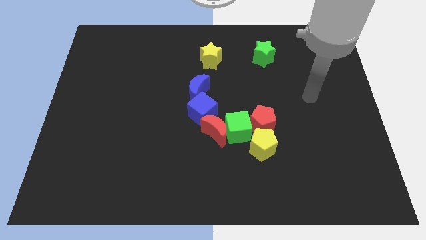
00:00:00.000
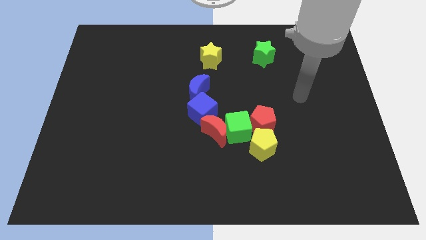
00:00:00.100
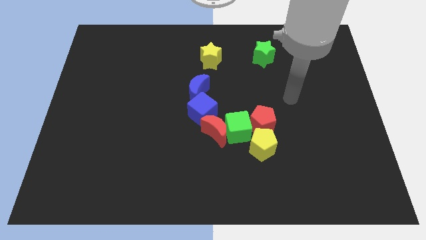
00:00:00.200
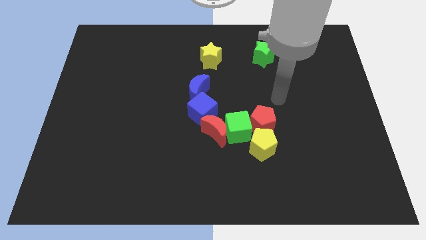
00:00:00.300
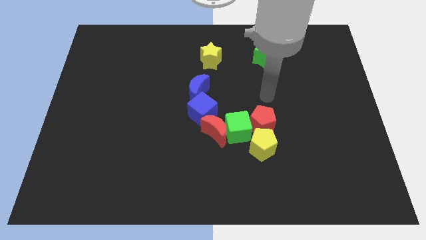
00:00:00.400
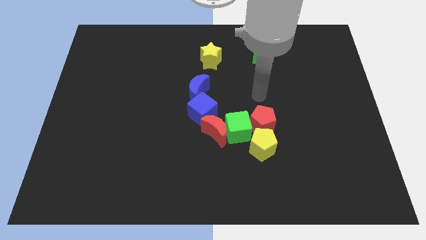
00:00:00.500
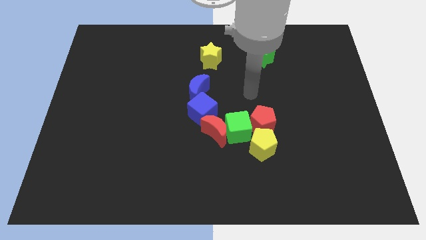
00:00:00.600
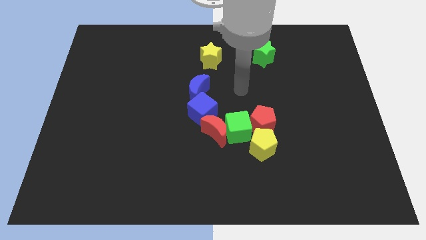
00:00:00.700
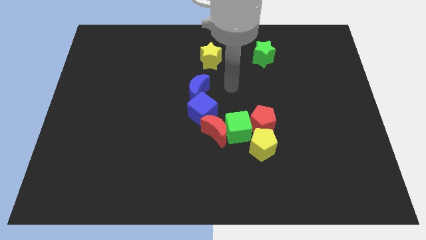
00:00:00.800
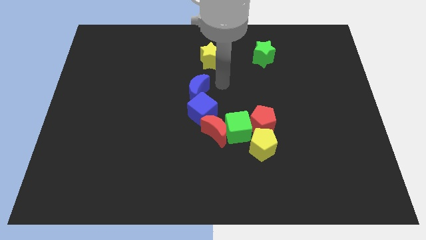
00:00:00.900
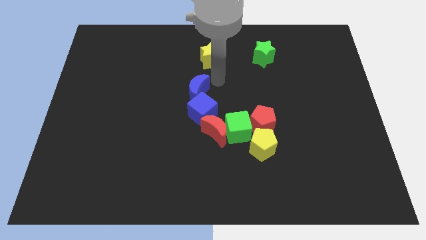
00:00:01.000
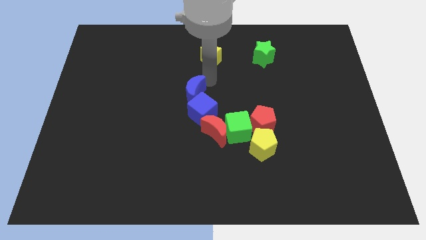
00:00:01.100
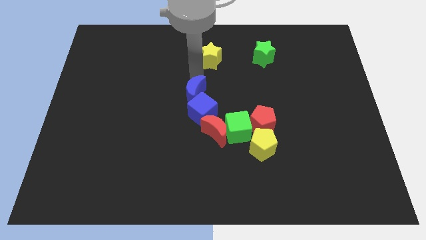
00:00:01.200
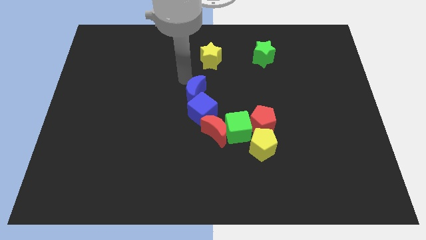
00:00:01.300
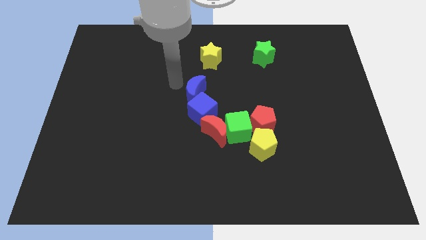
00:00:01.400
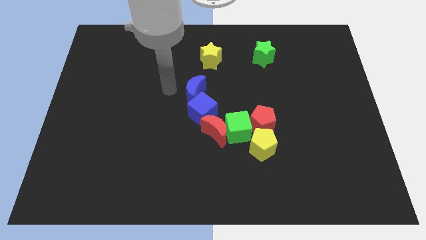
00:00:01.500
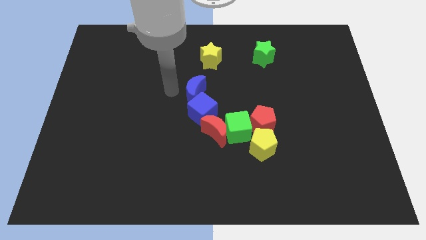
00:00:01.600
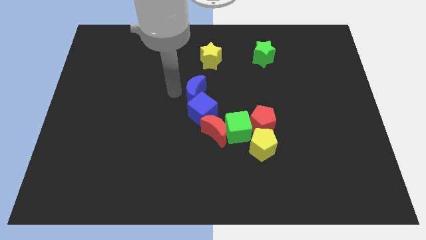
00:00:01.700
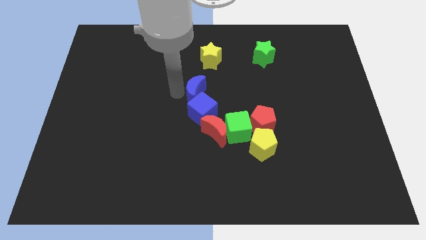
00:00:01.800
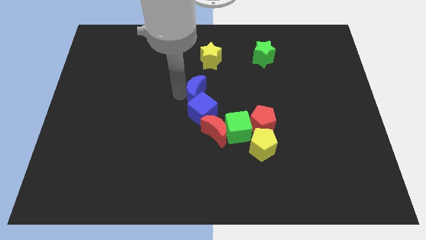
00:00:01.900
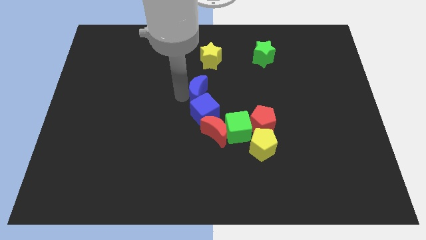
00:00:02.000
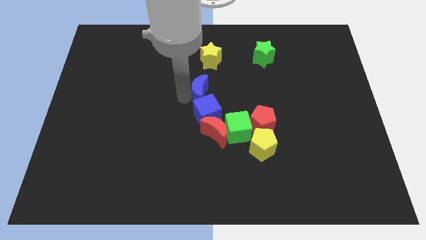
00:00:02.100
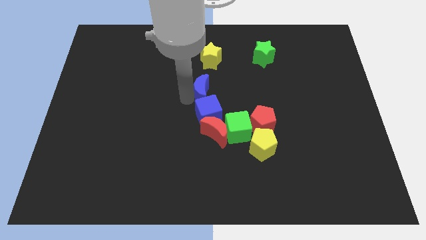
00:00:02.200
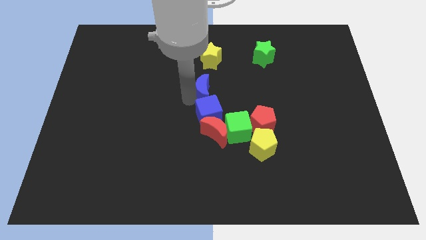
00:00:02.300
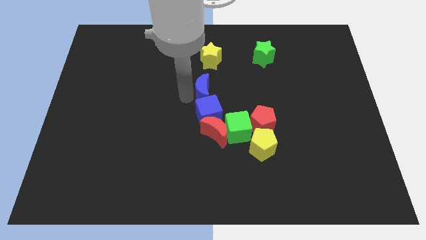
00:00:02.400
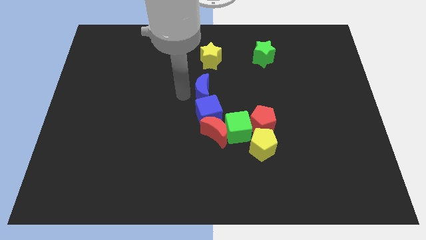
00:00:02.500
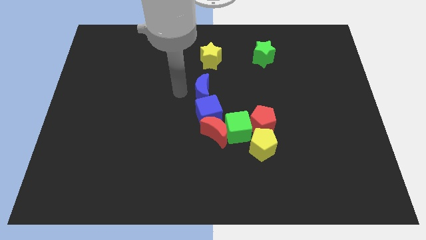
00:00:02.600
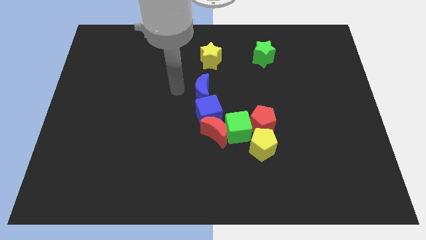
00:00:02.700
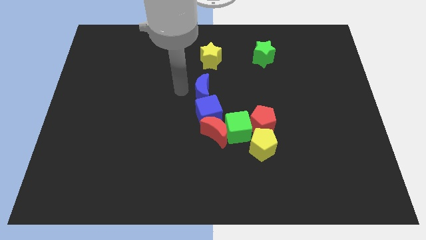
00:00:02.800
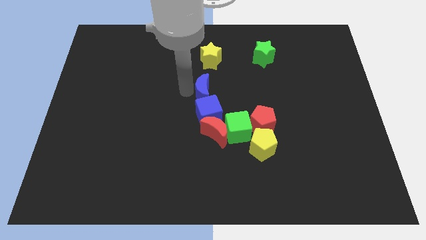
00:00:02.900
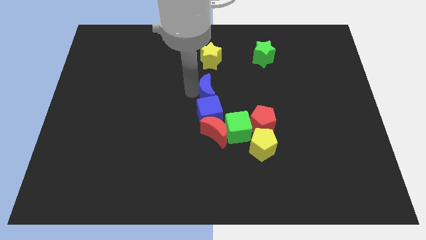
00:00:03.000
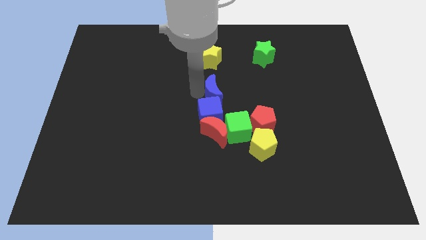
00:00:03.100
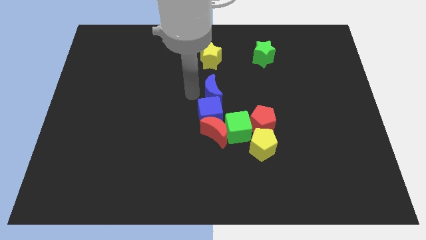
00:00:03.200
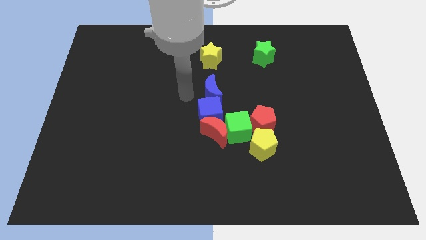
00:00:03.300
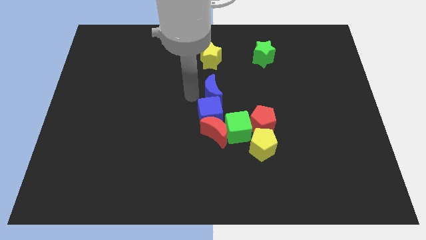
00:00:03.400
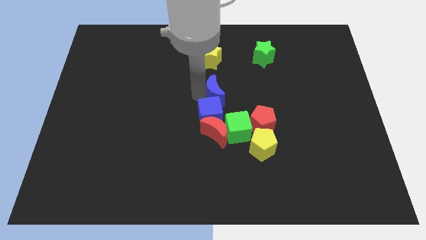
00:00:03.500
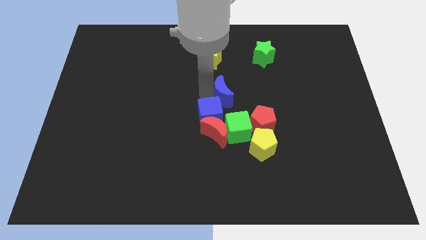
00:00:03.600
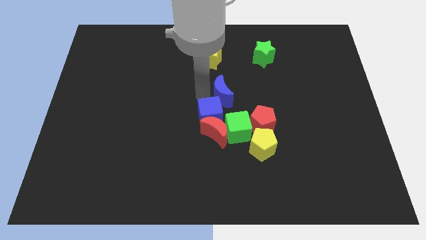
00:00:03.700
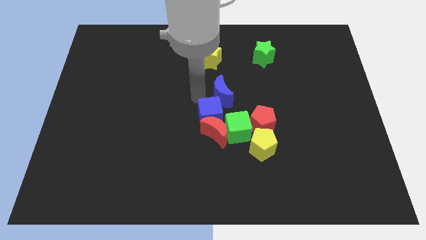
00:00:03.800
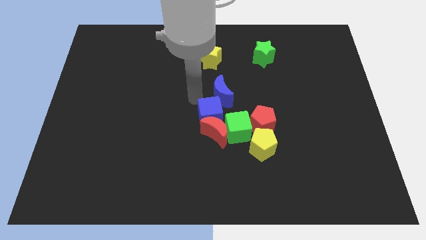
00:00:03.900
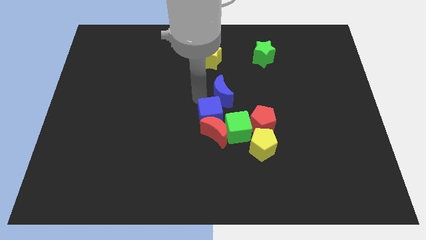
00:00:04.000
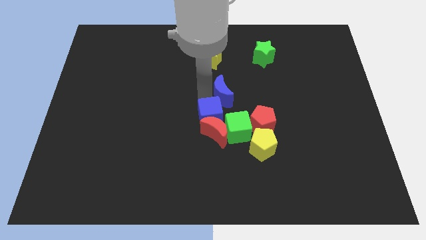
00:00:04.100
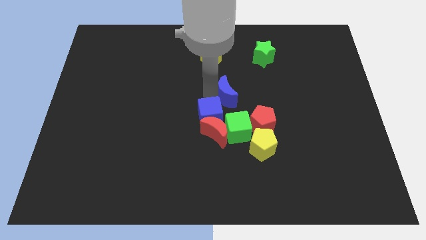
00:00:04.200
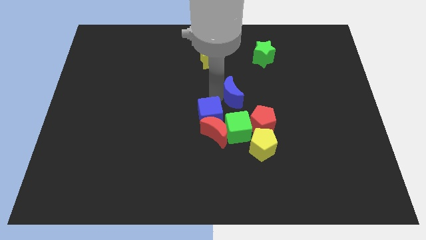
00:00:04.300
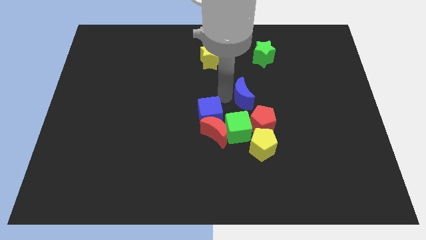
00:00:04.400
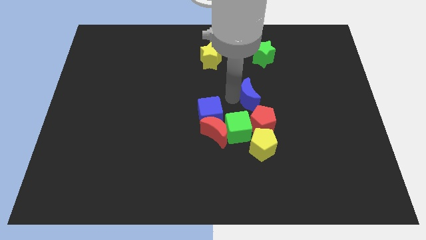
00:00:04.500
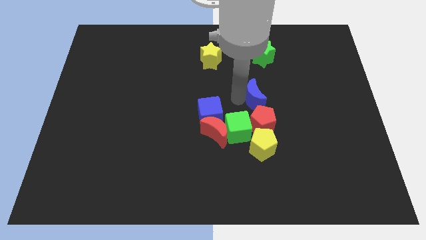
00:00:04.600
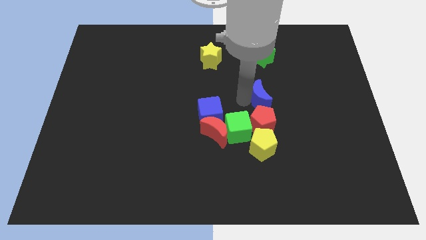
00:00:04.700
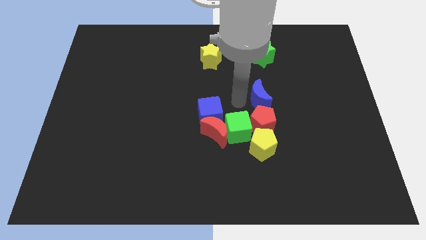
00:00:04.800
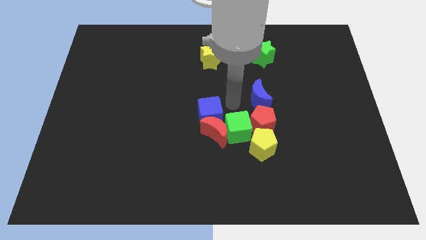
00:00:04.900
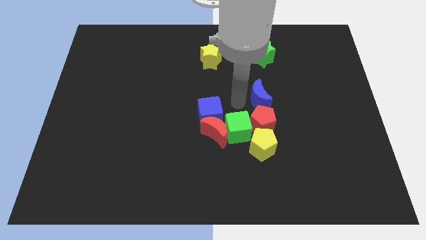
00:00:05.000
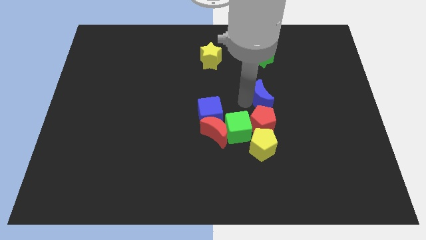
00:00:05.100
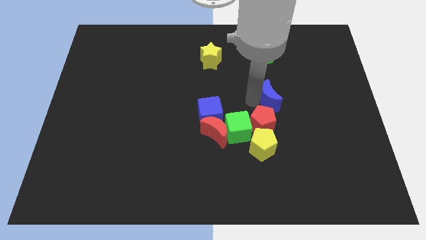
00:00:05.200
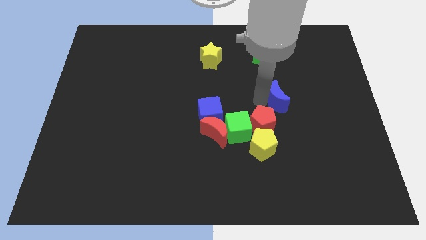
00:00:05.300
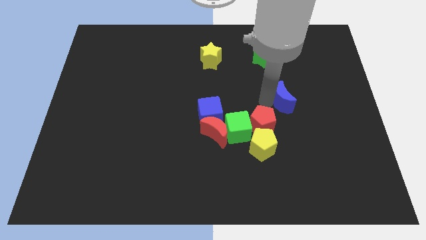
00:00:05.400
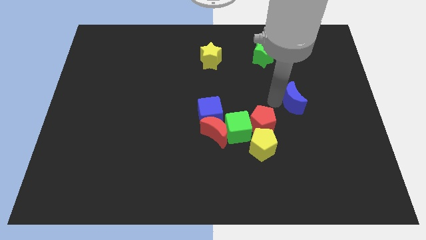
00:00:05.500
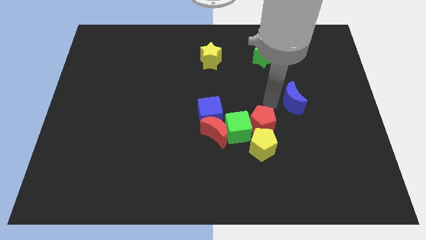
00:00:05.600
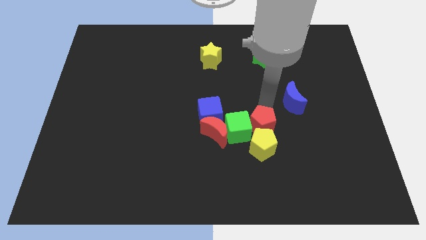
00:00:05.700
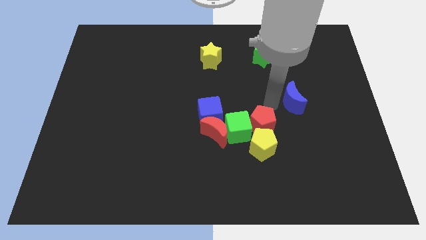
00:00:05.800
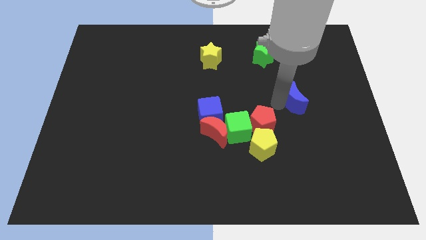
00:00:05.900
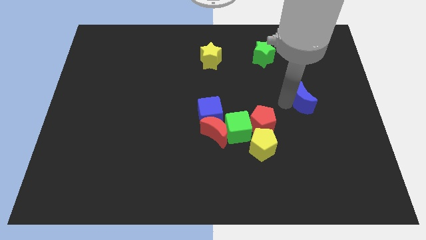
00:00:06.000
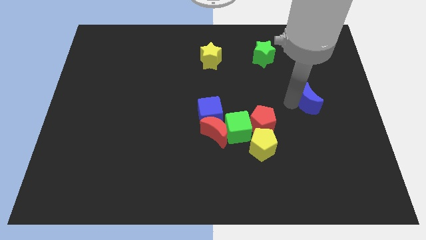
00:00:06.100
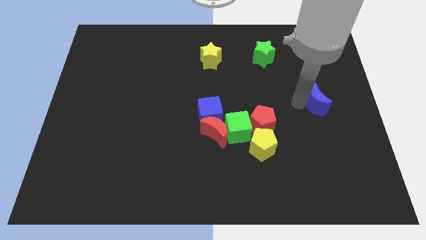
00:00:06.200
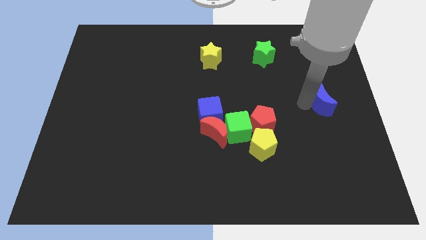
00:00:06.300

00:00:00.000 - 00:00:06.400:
slide the blue moon to the right side of the board

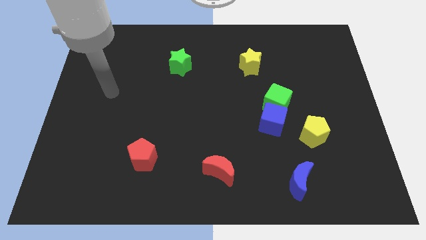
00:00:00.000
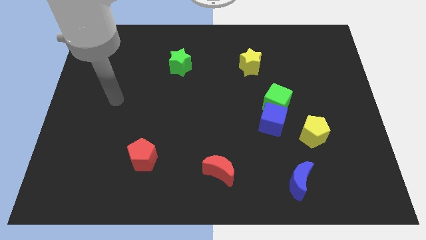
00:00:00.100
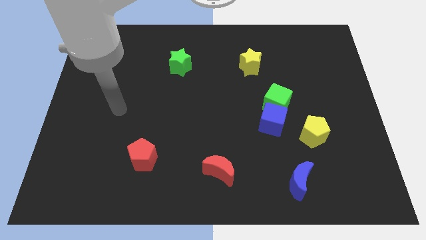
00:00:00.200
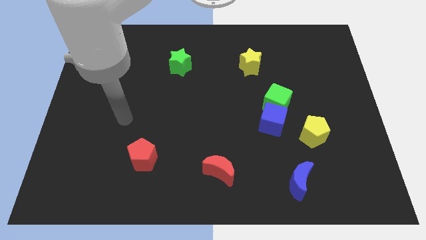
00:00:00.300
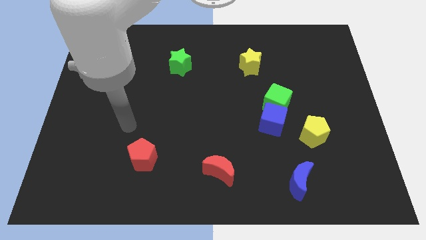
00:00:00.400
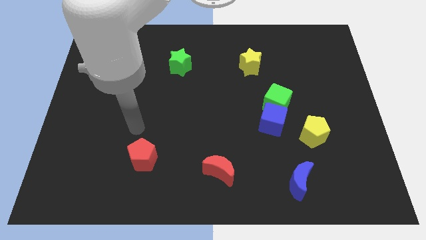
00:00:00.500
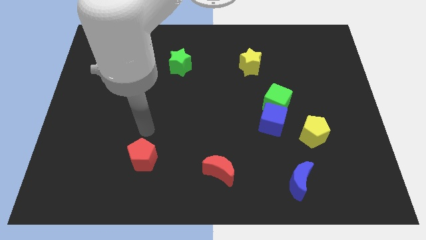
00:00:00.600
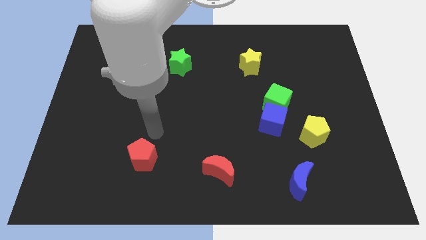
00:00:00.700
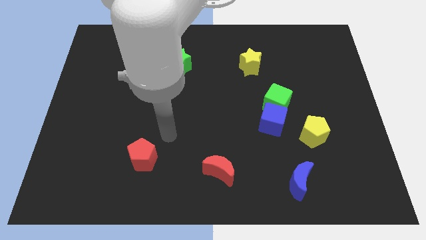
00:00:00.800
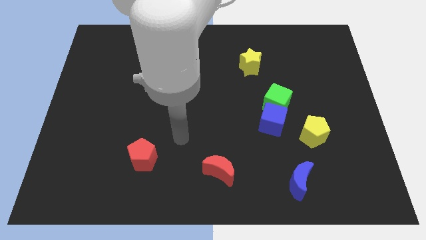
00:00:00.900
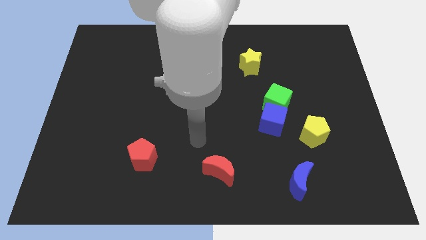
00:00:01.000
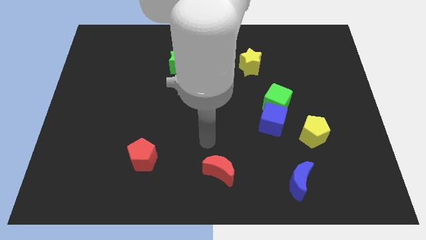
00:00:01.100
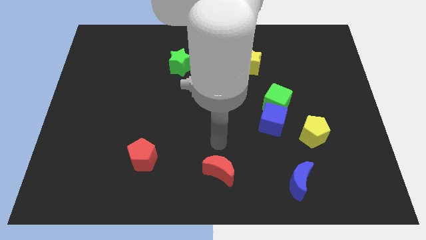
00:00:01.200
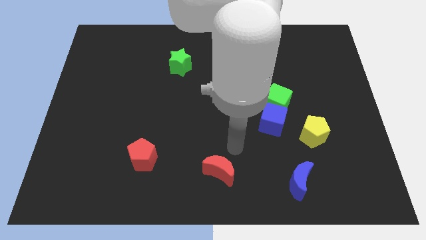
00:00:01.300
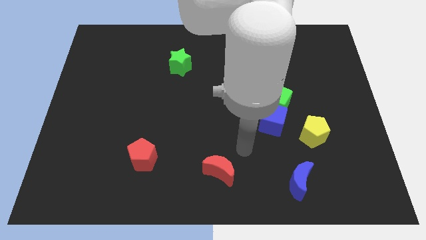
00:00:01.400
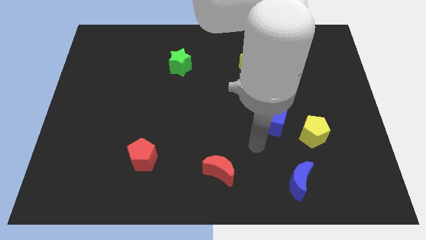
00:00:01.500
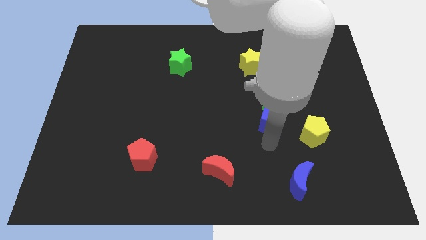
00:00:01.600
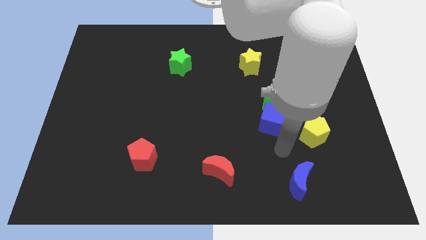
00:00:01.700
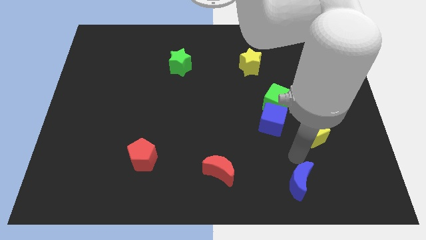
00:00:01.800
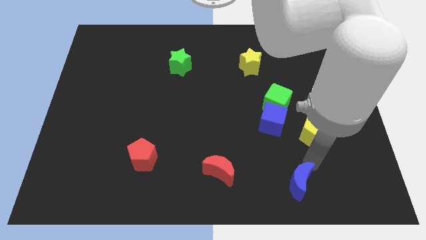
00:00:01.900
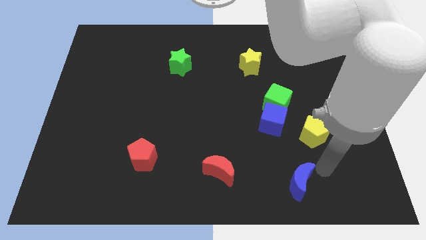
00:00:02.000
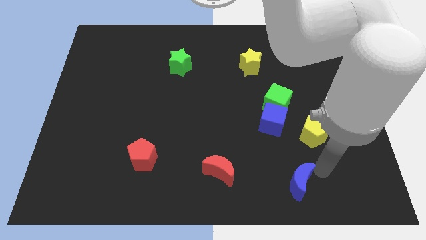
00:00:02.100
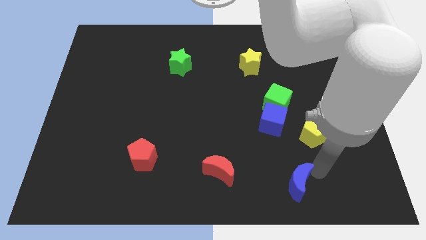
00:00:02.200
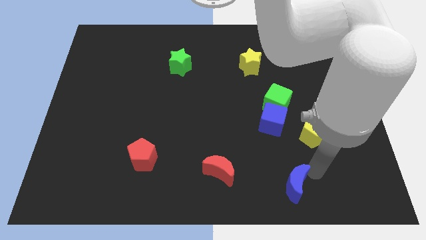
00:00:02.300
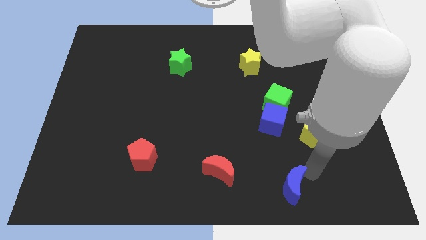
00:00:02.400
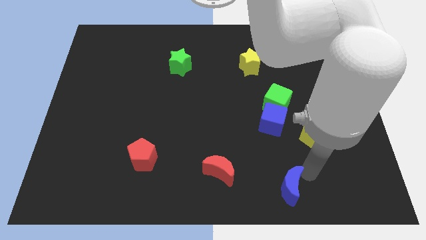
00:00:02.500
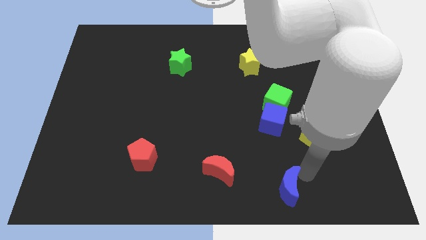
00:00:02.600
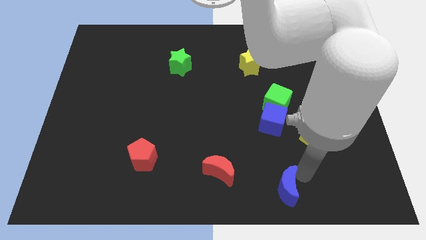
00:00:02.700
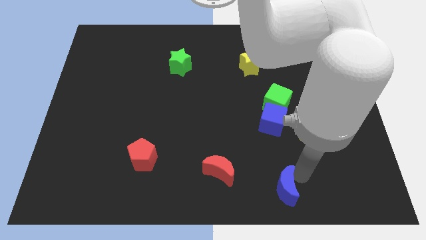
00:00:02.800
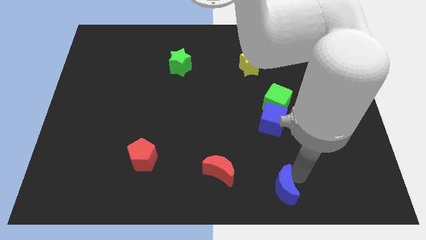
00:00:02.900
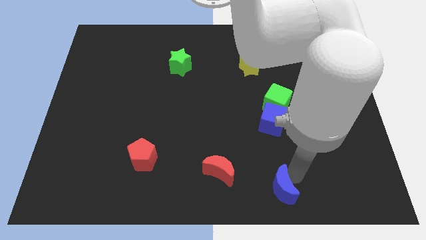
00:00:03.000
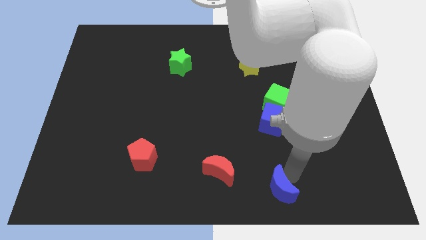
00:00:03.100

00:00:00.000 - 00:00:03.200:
put the blue moon to the bottom side
